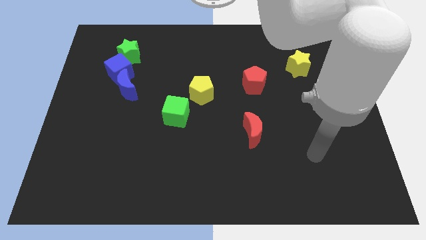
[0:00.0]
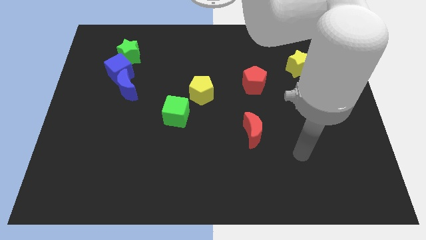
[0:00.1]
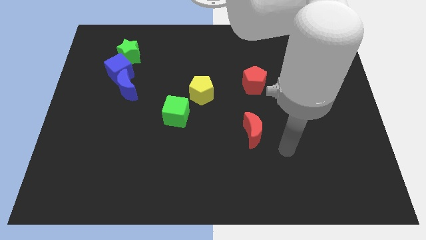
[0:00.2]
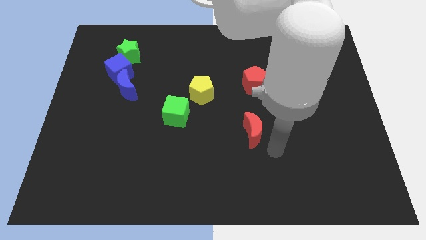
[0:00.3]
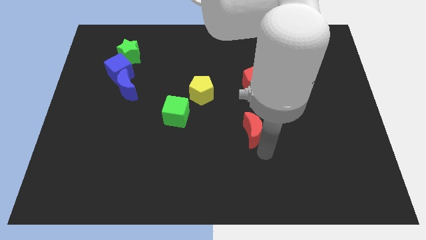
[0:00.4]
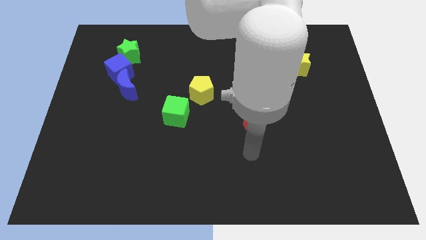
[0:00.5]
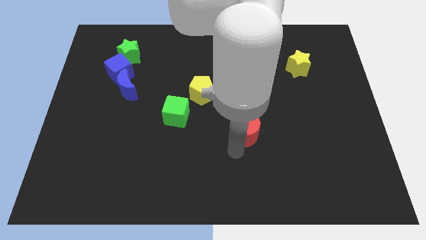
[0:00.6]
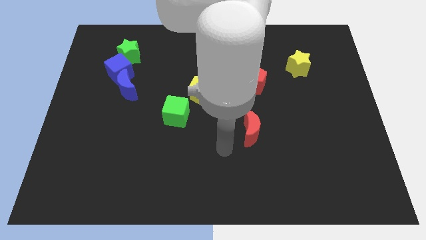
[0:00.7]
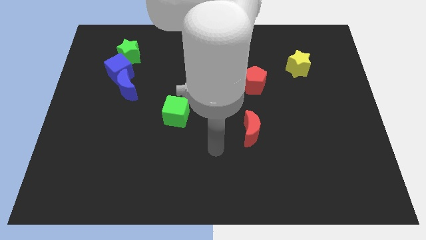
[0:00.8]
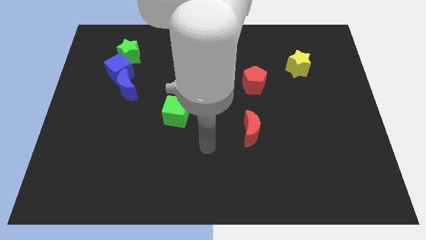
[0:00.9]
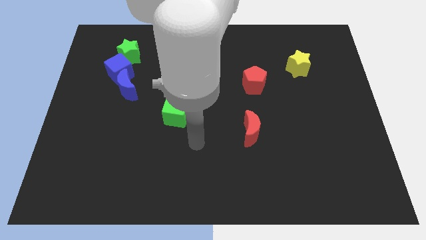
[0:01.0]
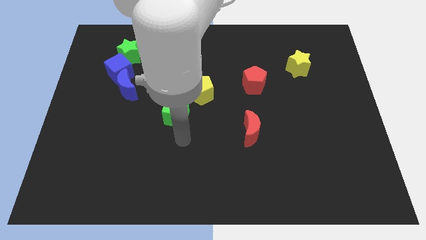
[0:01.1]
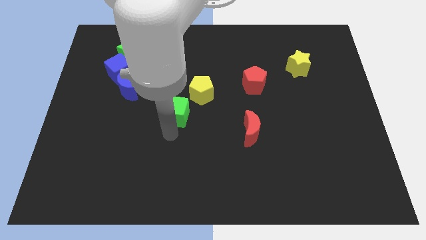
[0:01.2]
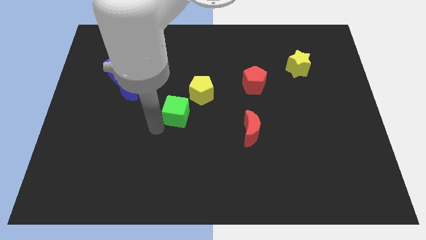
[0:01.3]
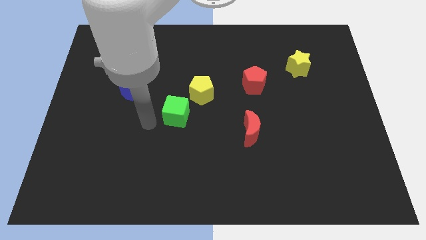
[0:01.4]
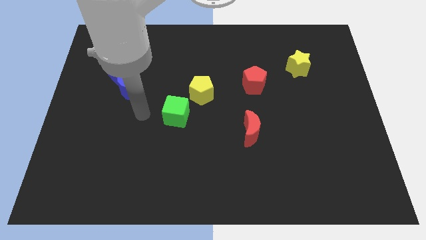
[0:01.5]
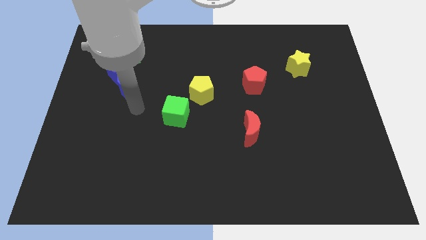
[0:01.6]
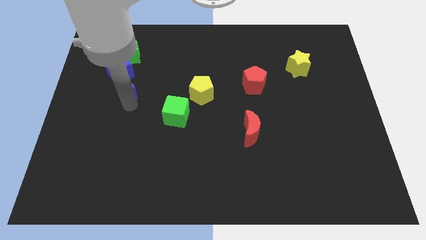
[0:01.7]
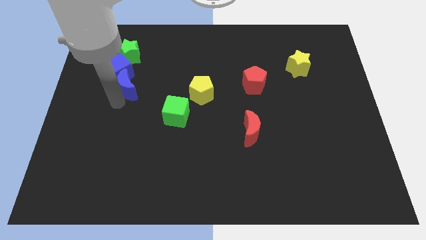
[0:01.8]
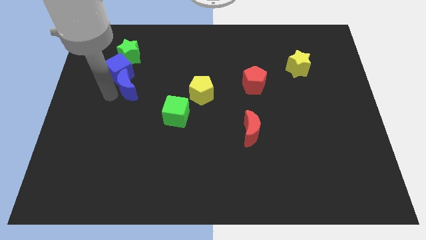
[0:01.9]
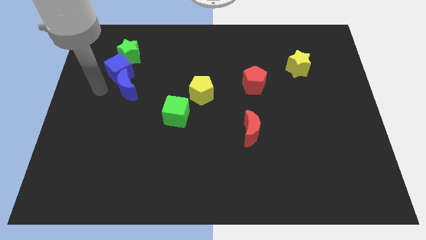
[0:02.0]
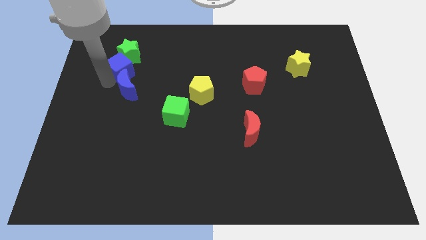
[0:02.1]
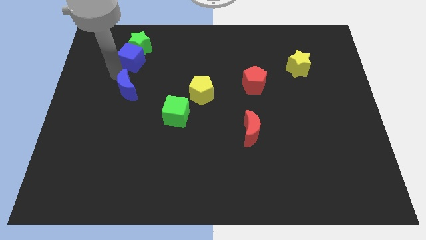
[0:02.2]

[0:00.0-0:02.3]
pull the blue moon apart from the blue cube

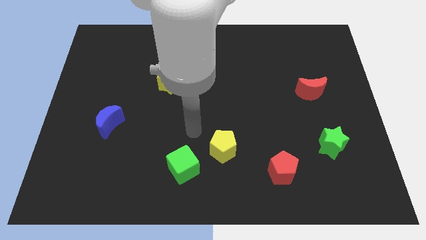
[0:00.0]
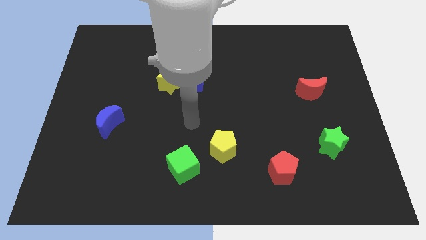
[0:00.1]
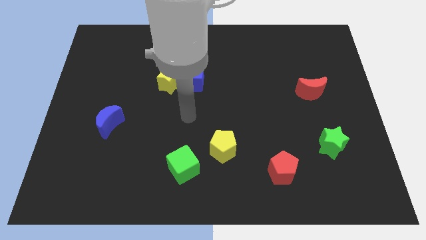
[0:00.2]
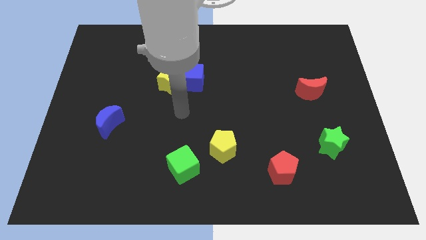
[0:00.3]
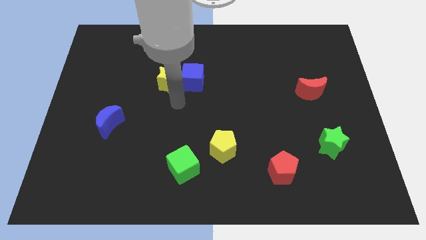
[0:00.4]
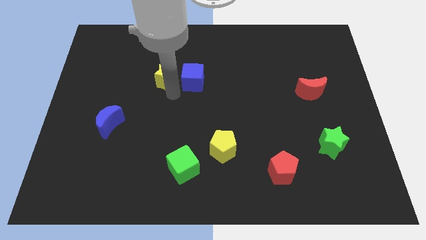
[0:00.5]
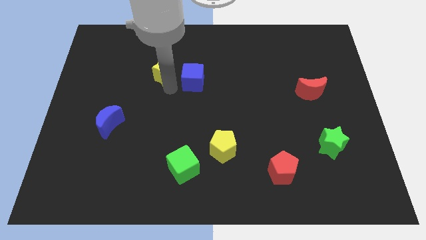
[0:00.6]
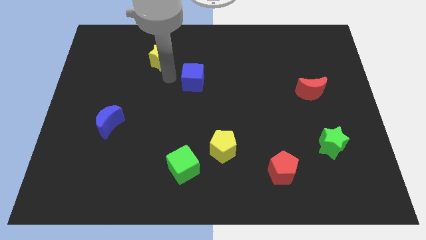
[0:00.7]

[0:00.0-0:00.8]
pull the blue cube apart from the yellow star

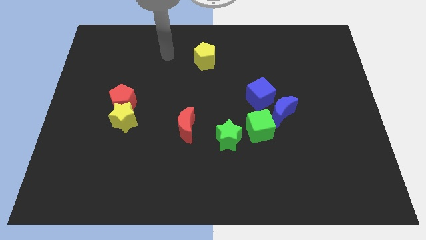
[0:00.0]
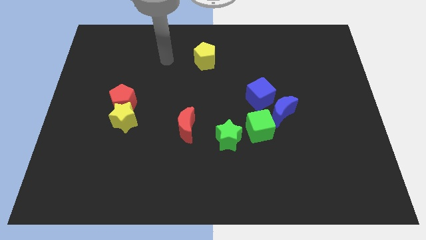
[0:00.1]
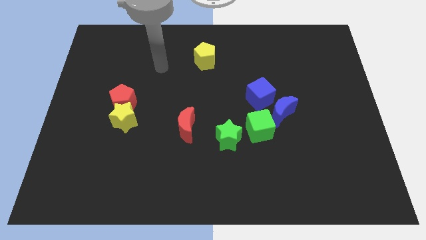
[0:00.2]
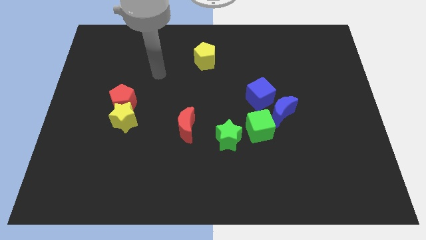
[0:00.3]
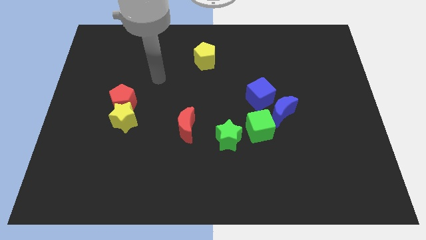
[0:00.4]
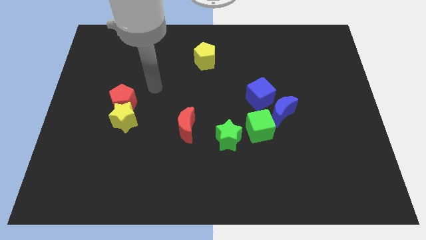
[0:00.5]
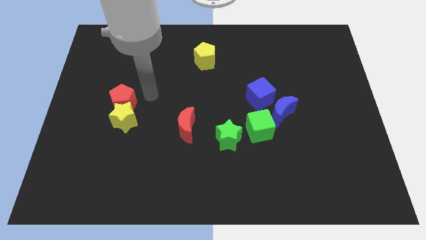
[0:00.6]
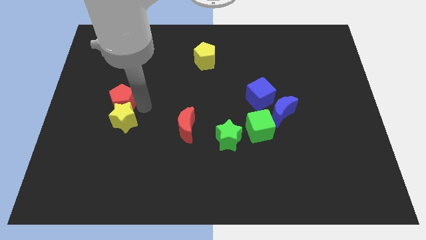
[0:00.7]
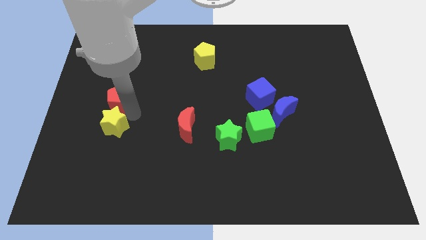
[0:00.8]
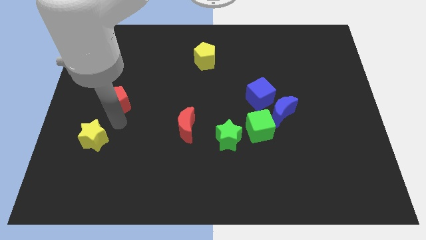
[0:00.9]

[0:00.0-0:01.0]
move the red pentagon away from the yellow star

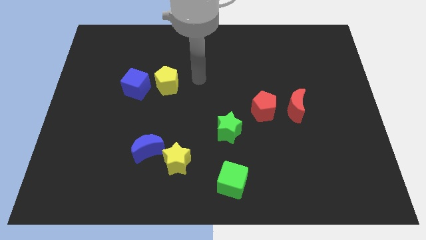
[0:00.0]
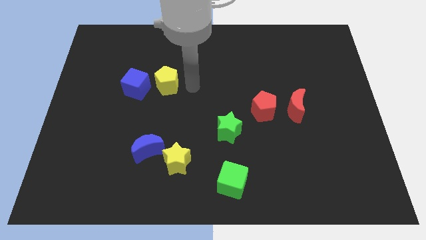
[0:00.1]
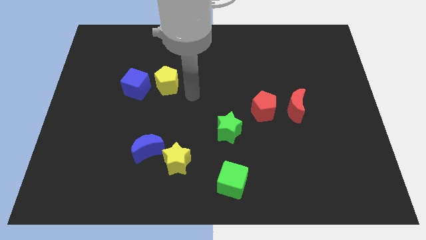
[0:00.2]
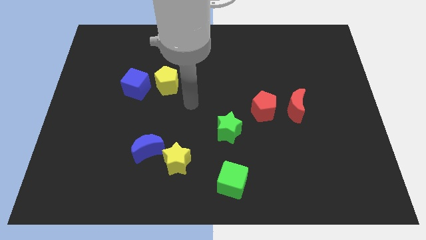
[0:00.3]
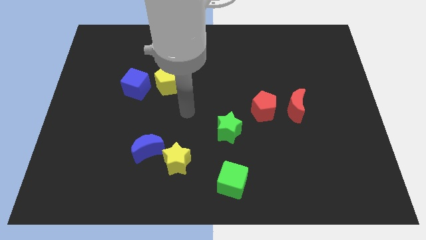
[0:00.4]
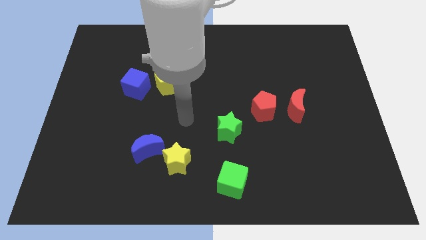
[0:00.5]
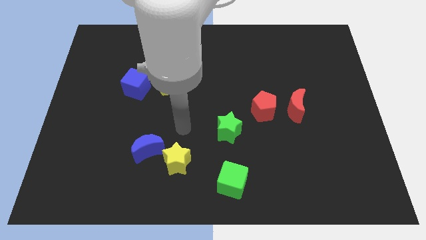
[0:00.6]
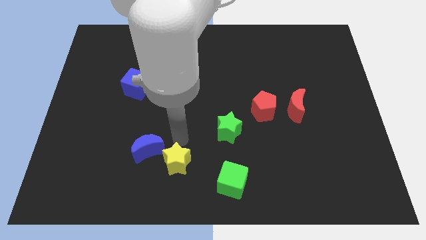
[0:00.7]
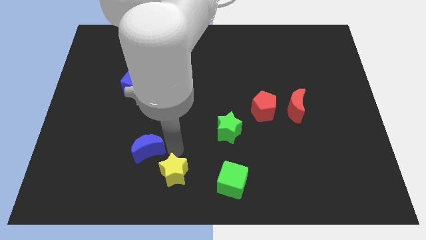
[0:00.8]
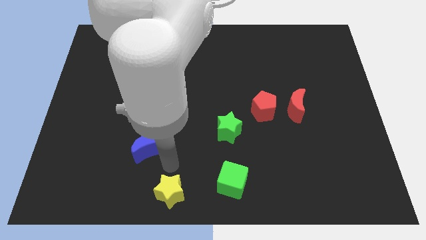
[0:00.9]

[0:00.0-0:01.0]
separate the blue moon from the yellow star

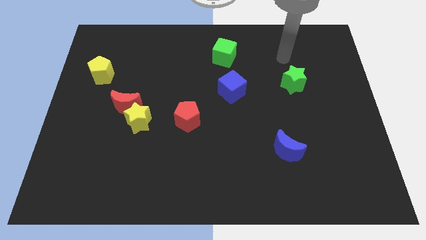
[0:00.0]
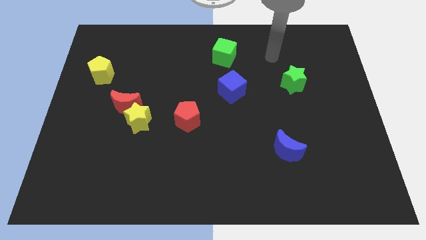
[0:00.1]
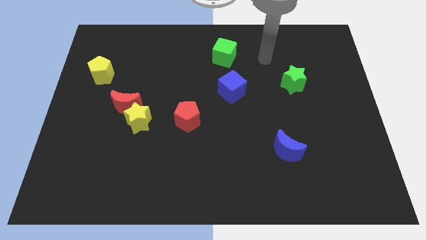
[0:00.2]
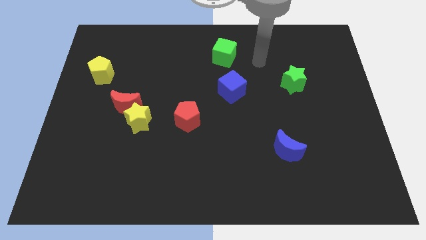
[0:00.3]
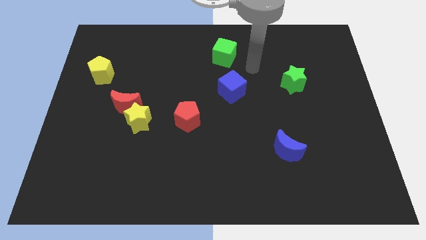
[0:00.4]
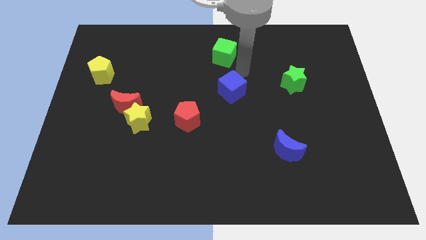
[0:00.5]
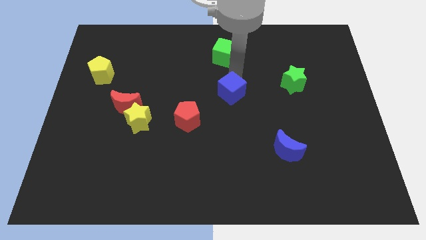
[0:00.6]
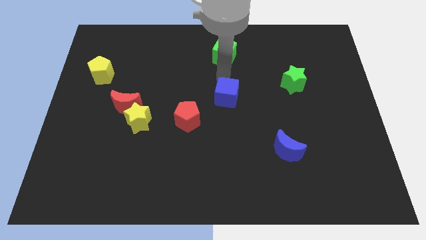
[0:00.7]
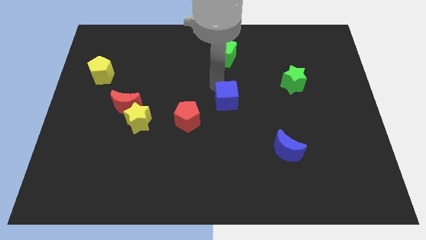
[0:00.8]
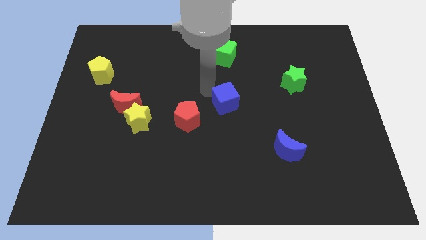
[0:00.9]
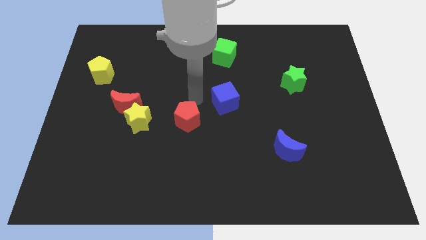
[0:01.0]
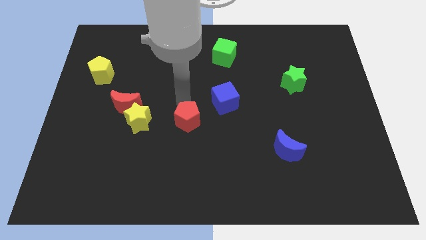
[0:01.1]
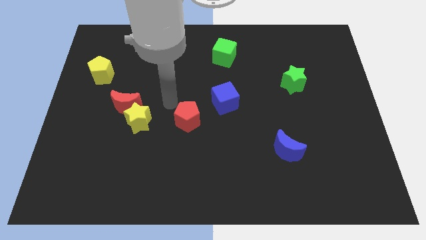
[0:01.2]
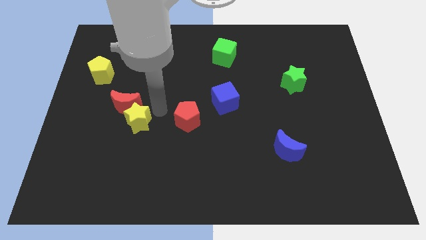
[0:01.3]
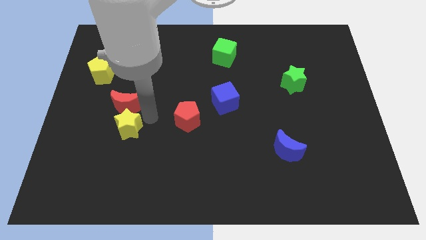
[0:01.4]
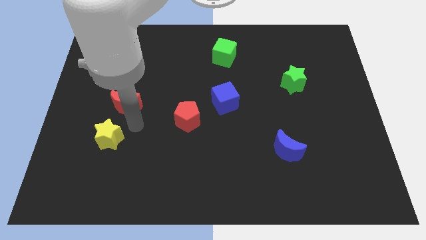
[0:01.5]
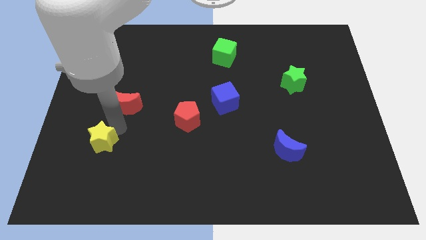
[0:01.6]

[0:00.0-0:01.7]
move the red moon away from the yellow star

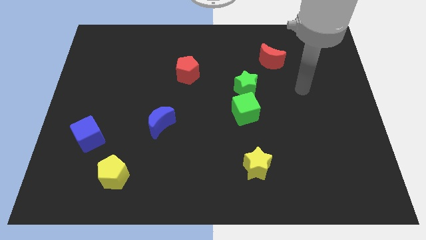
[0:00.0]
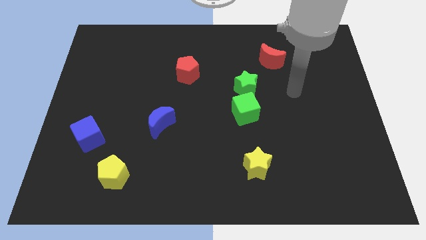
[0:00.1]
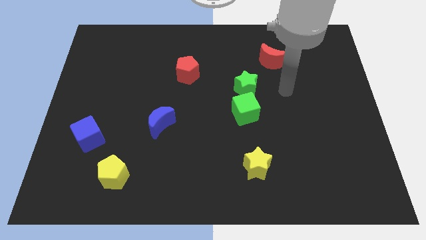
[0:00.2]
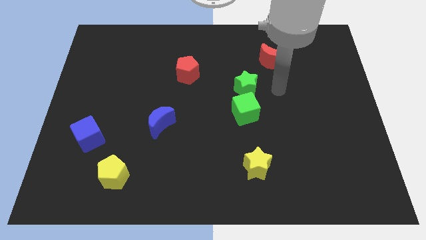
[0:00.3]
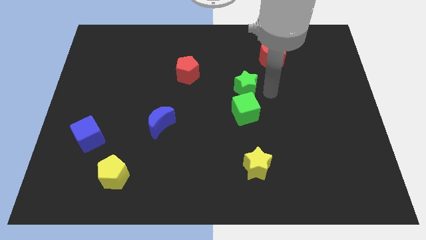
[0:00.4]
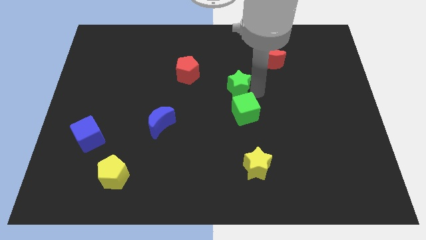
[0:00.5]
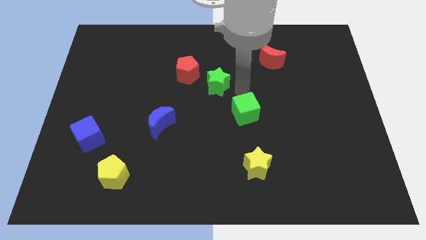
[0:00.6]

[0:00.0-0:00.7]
separate the green cube from the green star

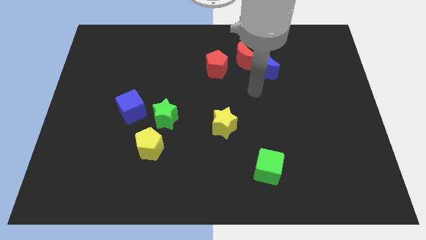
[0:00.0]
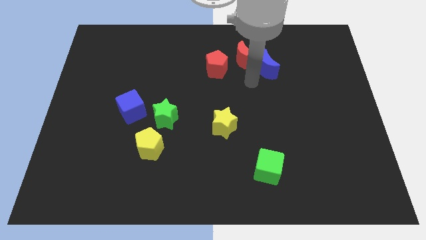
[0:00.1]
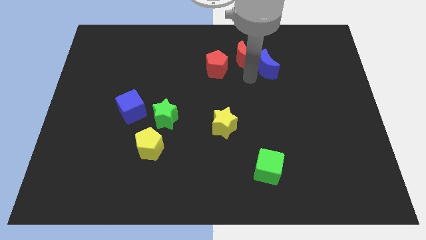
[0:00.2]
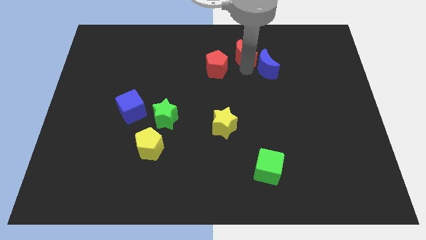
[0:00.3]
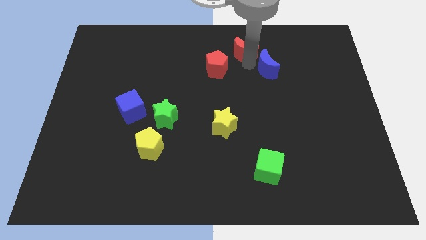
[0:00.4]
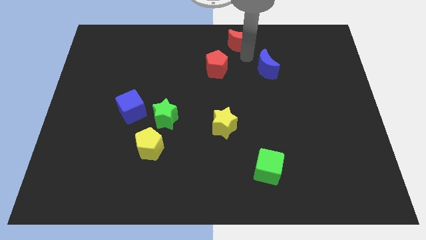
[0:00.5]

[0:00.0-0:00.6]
separate the blue moon from the red moon

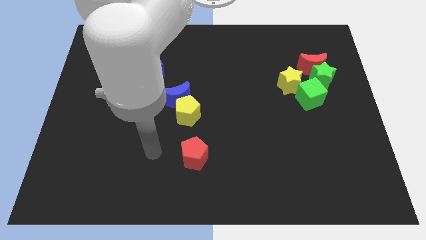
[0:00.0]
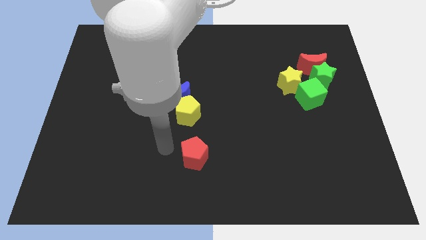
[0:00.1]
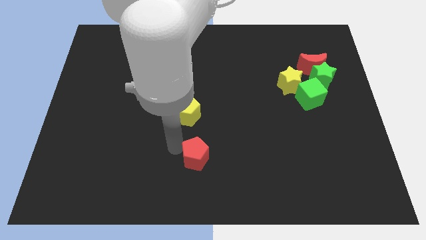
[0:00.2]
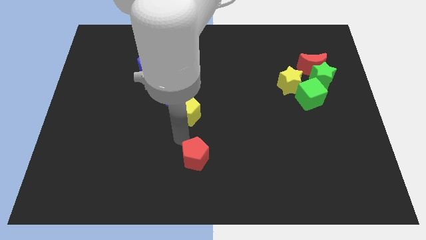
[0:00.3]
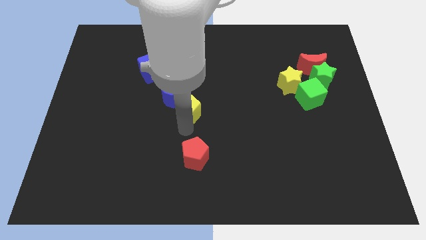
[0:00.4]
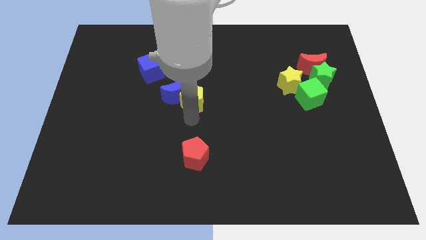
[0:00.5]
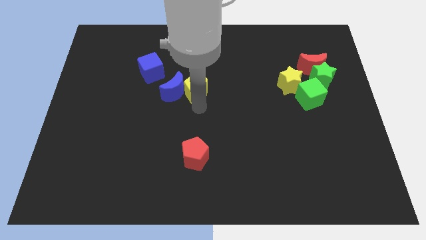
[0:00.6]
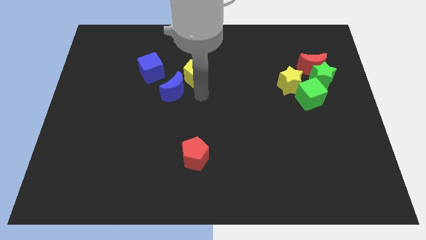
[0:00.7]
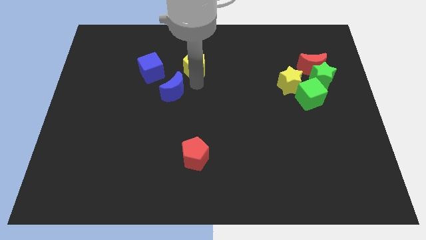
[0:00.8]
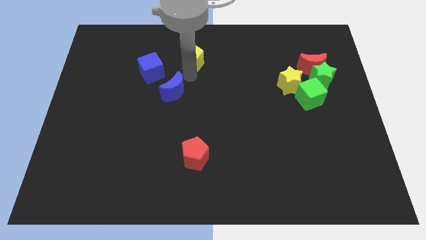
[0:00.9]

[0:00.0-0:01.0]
move the blue moon away from the yellow pentagon

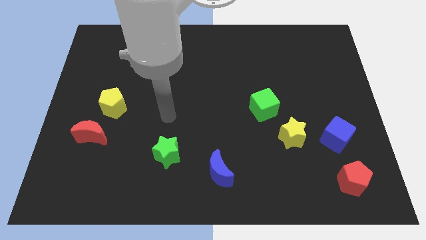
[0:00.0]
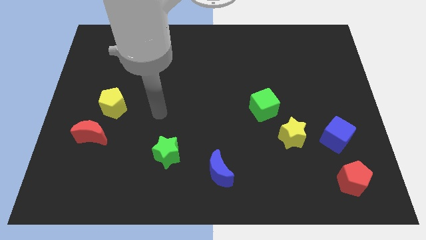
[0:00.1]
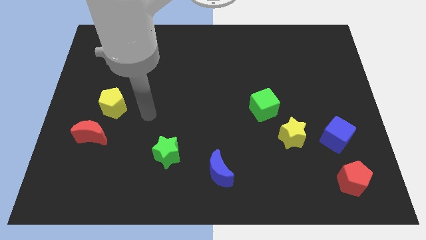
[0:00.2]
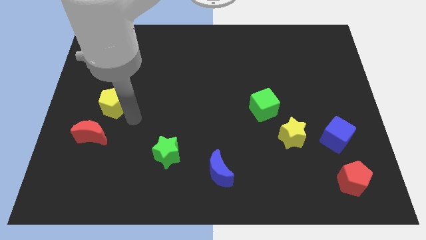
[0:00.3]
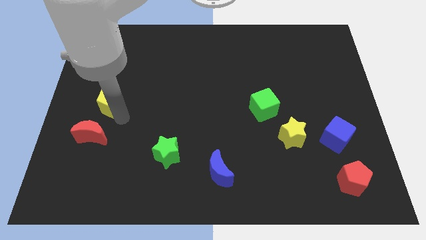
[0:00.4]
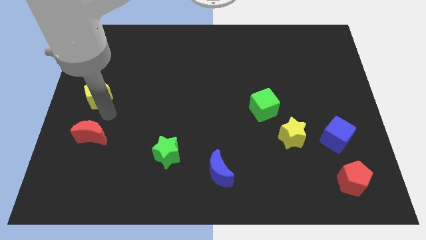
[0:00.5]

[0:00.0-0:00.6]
move the red moon away from the yellow pentagon
